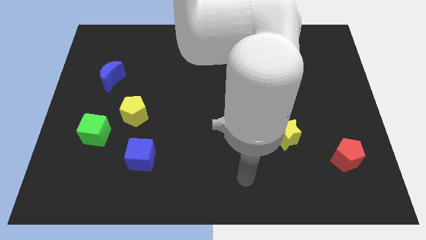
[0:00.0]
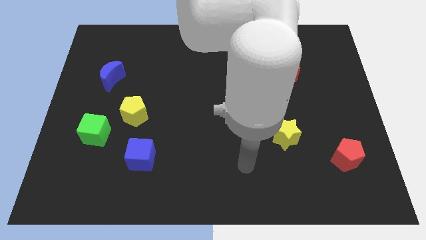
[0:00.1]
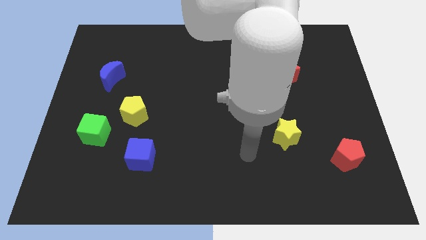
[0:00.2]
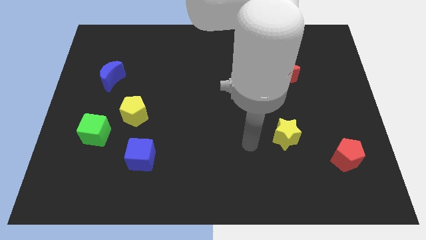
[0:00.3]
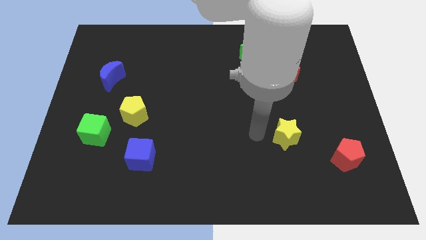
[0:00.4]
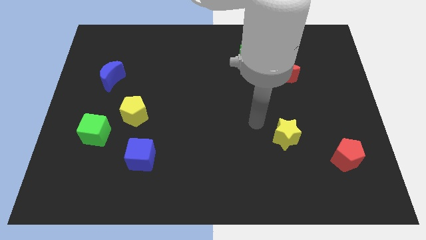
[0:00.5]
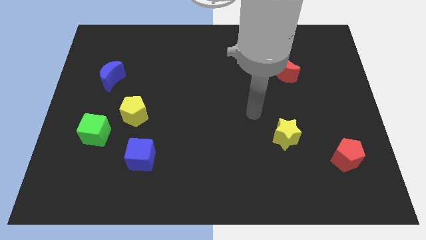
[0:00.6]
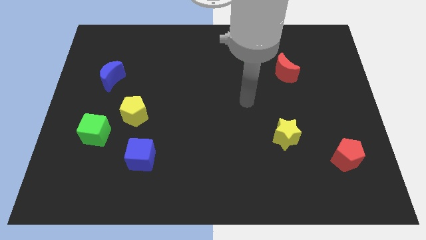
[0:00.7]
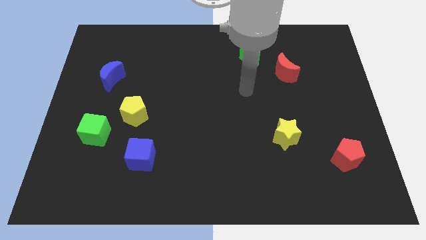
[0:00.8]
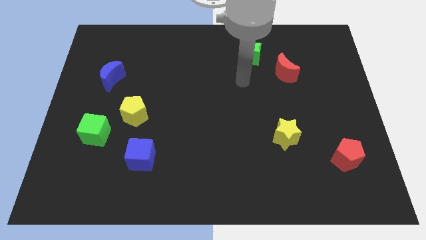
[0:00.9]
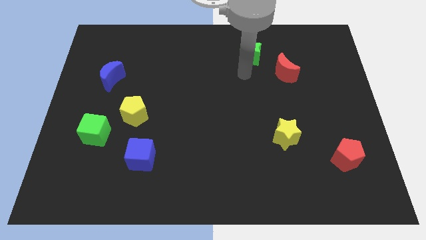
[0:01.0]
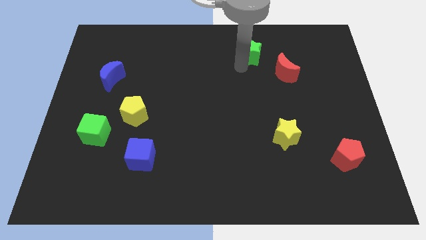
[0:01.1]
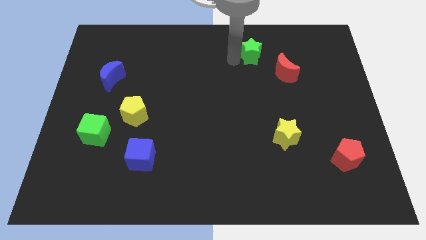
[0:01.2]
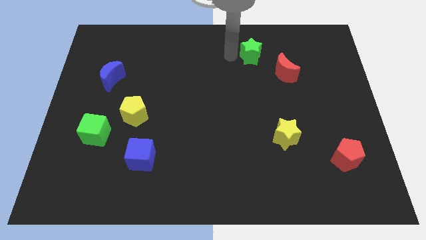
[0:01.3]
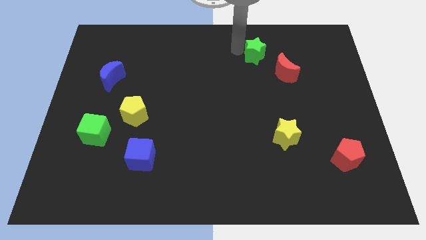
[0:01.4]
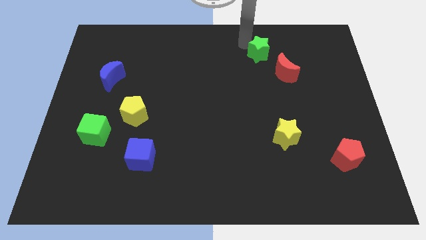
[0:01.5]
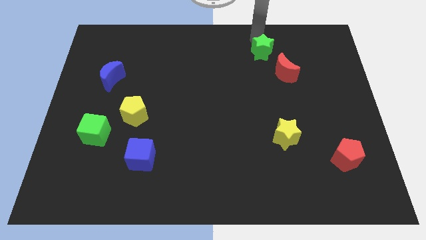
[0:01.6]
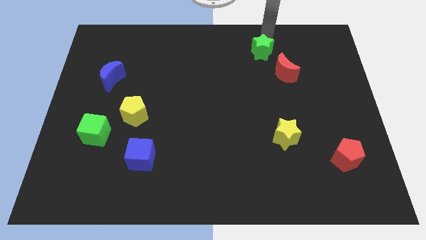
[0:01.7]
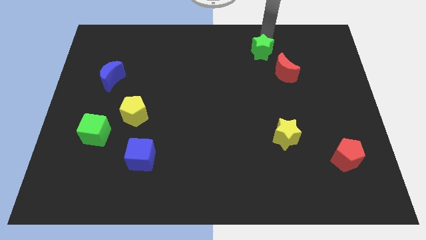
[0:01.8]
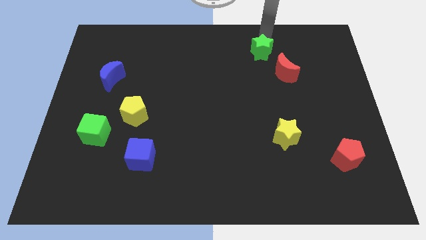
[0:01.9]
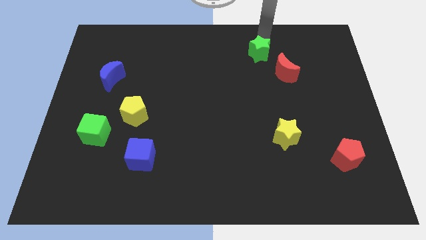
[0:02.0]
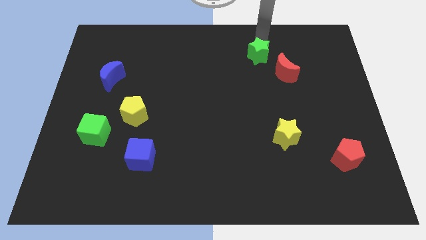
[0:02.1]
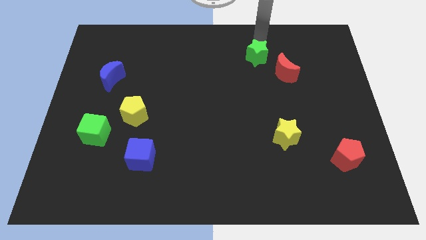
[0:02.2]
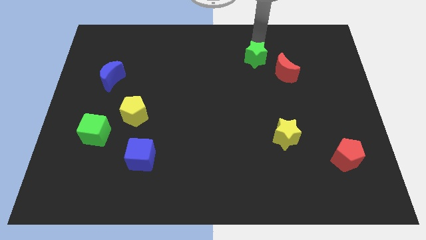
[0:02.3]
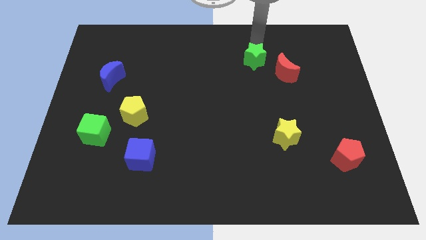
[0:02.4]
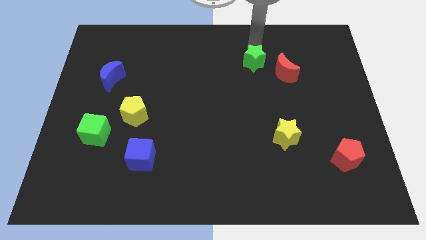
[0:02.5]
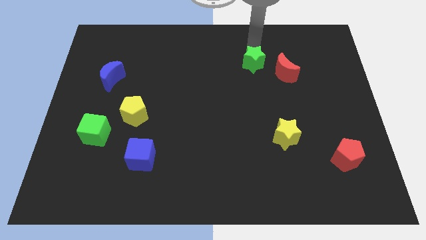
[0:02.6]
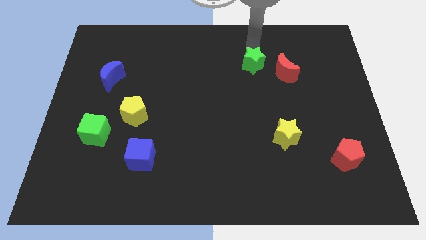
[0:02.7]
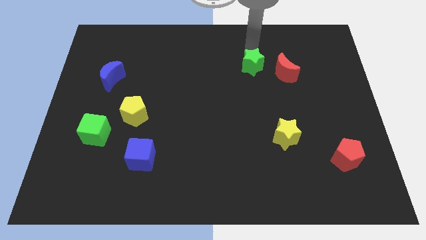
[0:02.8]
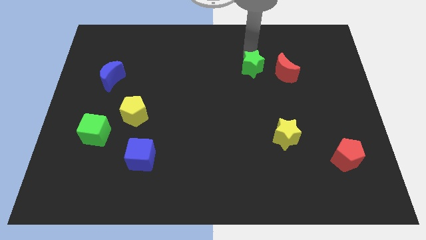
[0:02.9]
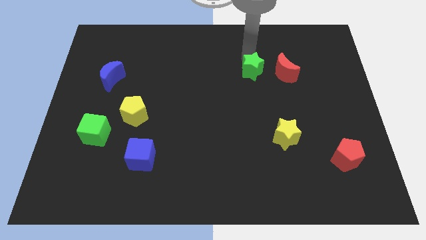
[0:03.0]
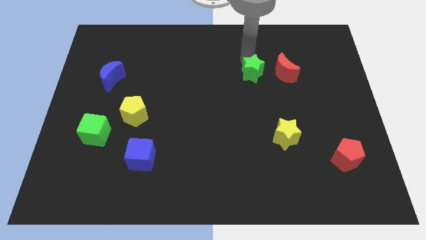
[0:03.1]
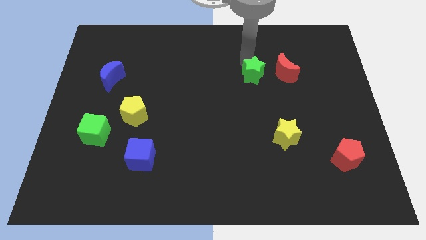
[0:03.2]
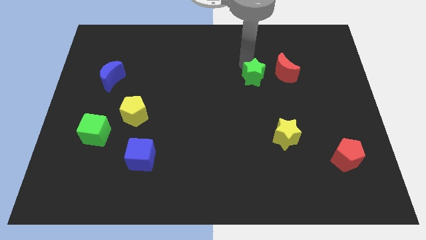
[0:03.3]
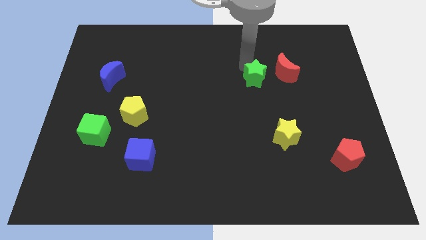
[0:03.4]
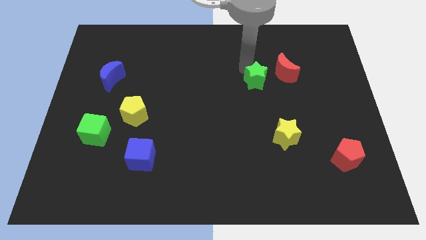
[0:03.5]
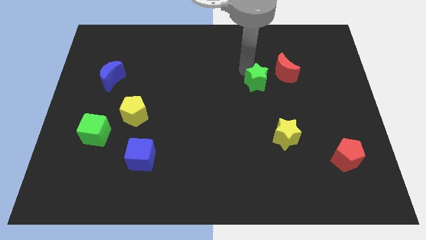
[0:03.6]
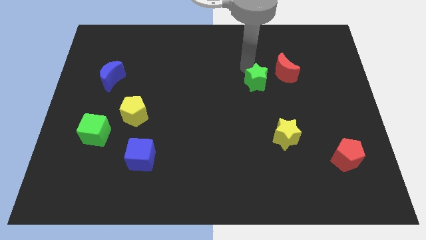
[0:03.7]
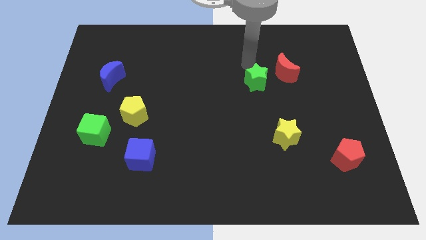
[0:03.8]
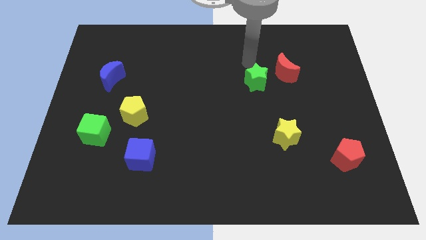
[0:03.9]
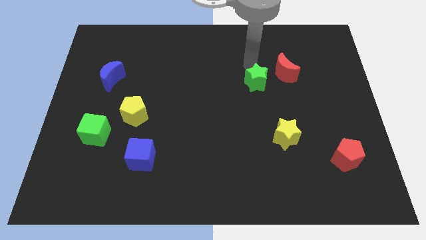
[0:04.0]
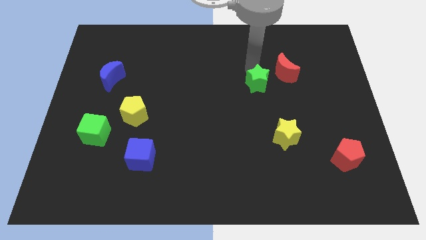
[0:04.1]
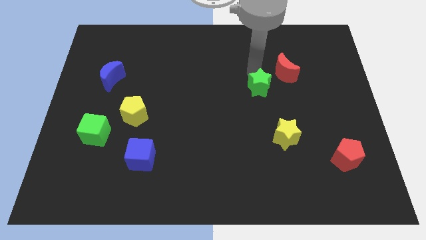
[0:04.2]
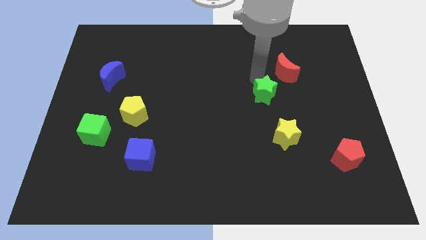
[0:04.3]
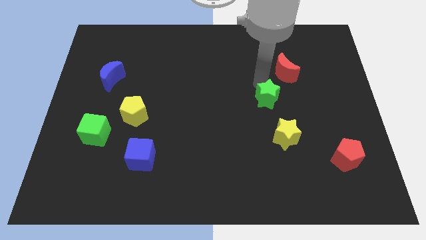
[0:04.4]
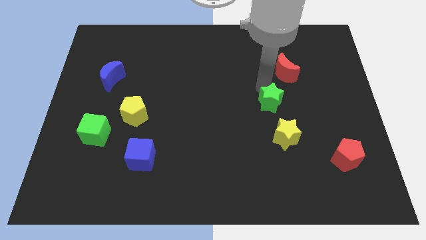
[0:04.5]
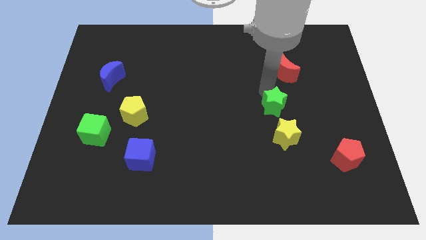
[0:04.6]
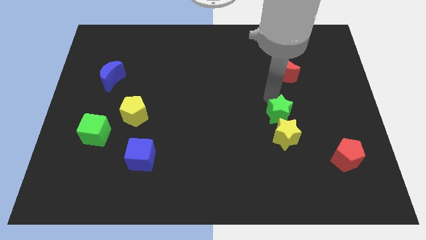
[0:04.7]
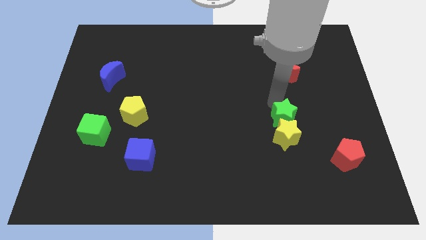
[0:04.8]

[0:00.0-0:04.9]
move the green star towards the yellow star

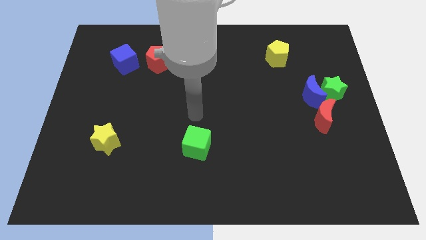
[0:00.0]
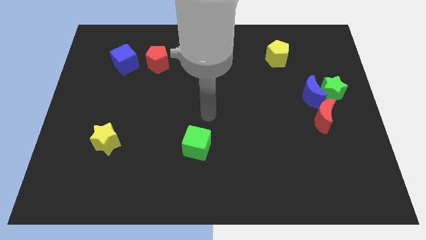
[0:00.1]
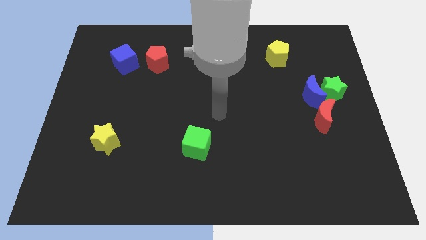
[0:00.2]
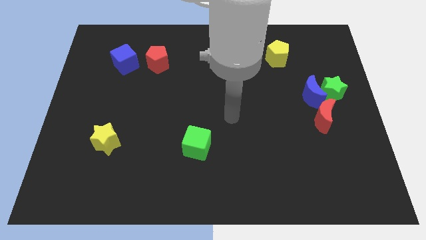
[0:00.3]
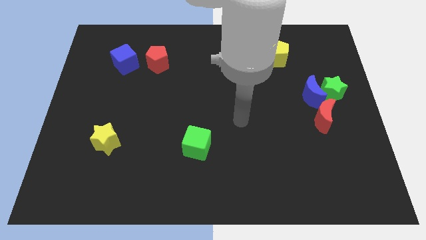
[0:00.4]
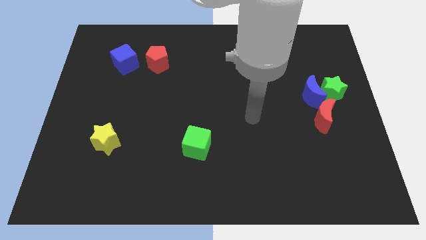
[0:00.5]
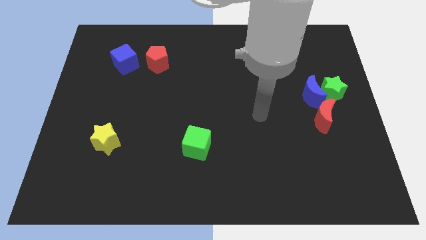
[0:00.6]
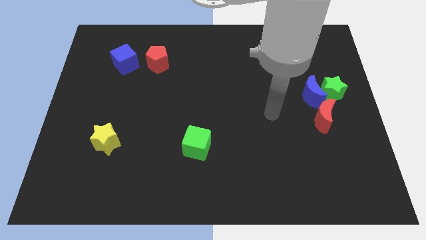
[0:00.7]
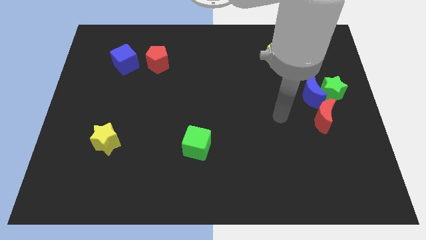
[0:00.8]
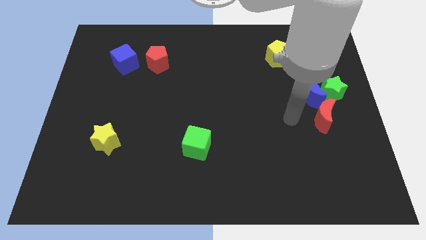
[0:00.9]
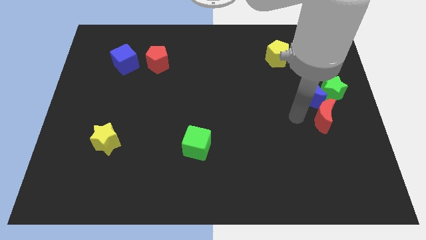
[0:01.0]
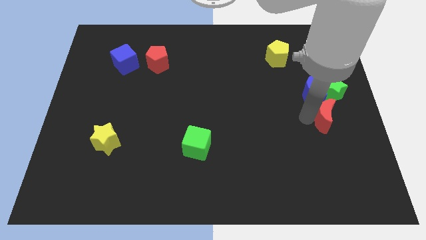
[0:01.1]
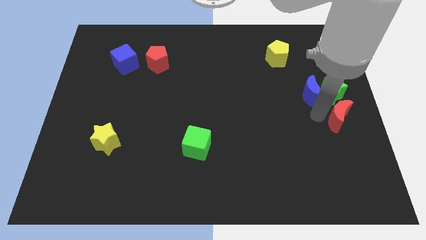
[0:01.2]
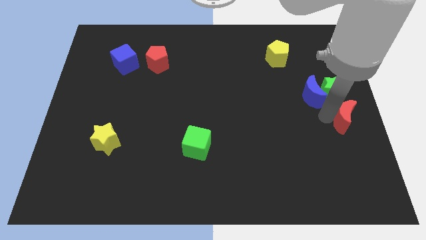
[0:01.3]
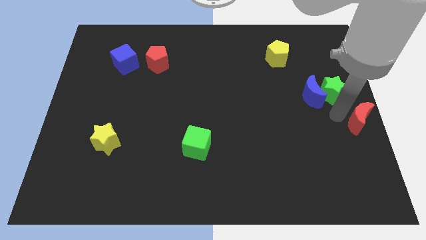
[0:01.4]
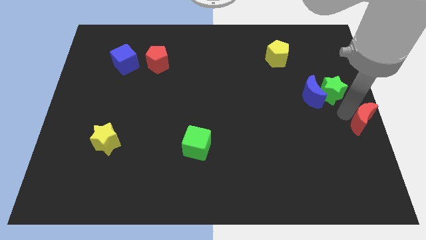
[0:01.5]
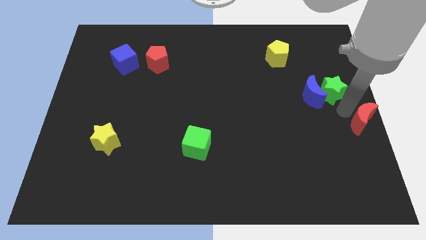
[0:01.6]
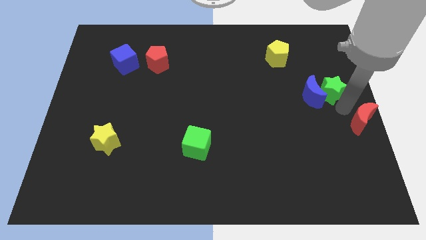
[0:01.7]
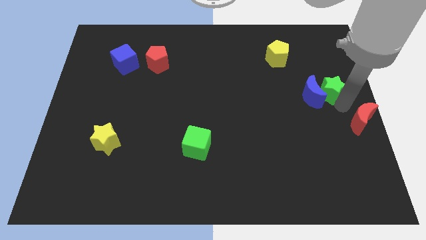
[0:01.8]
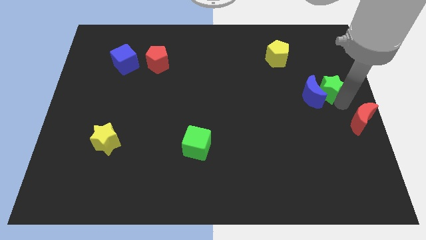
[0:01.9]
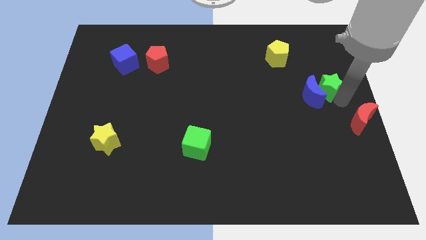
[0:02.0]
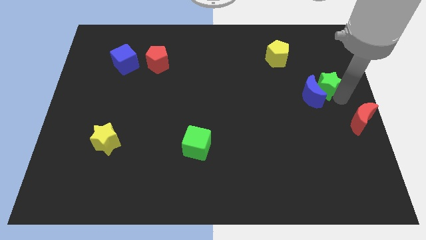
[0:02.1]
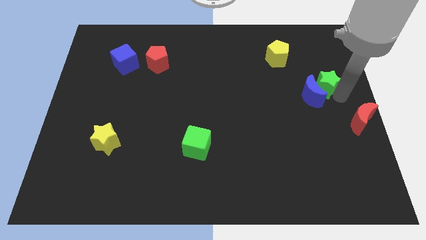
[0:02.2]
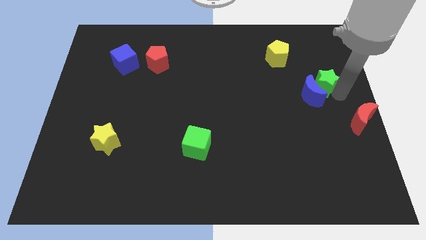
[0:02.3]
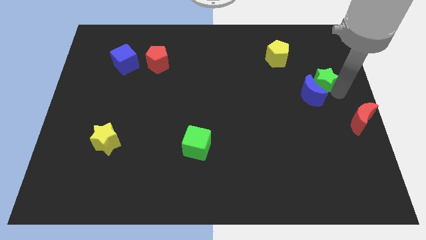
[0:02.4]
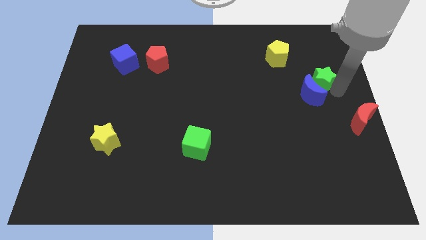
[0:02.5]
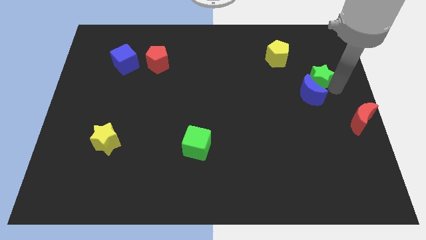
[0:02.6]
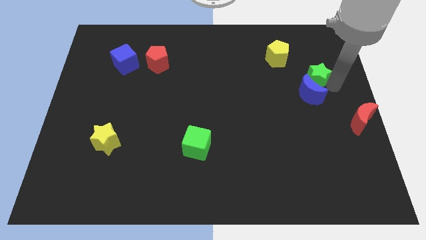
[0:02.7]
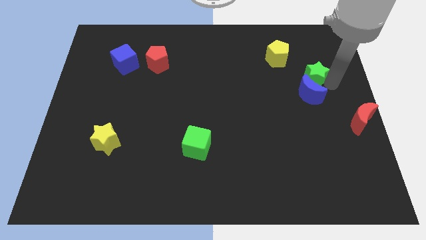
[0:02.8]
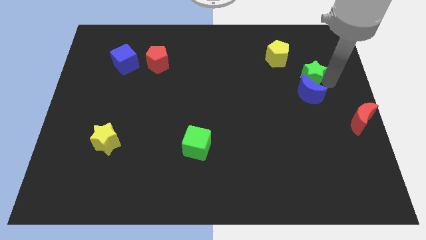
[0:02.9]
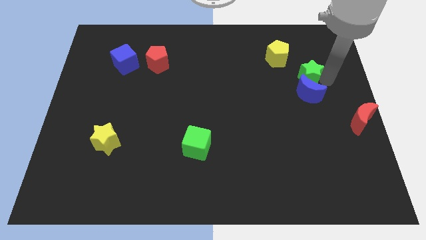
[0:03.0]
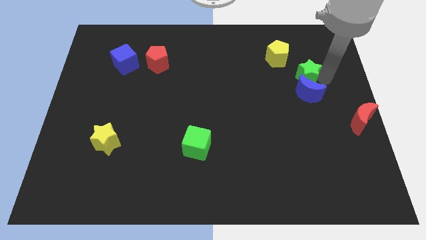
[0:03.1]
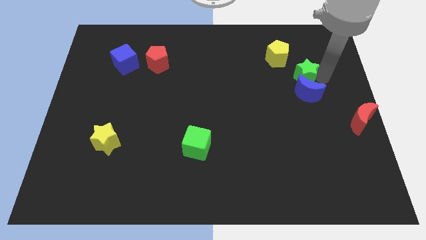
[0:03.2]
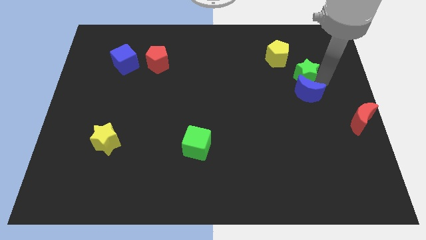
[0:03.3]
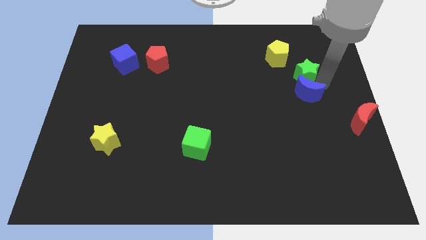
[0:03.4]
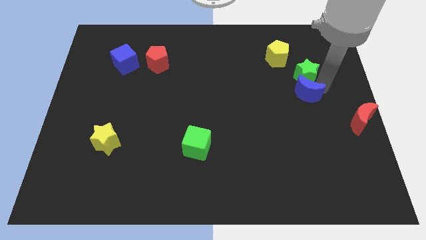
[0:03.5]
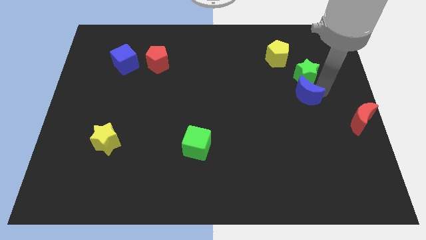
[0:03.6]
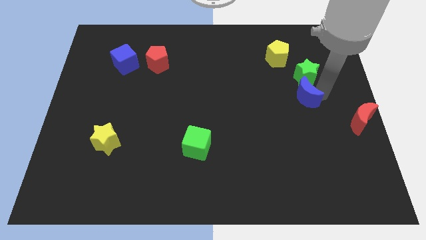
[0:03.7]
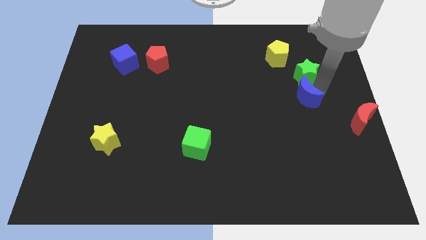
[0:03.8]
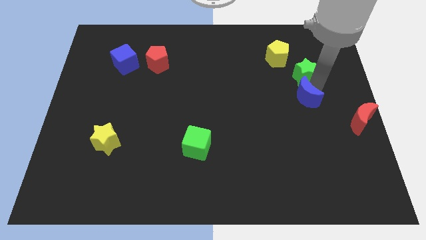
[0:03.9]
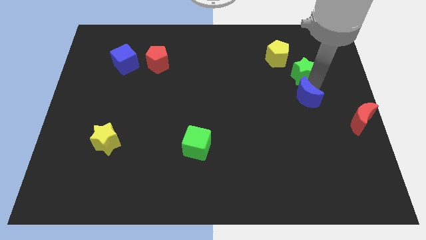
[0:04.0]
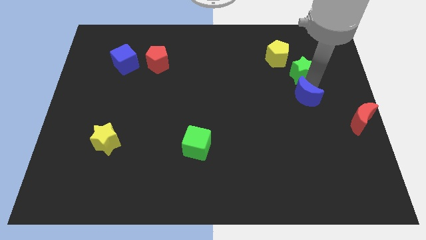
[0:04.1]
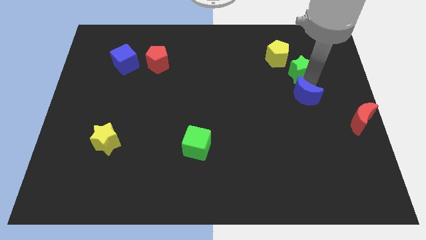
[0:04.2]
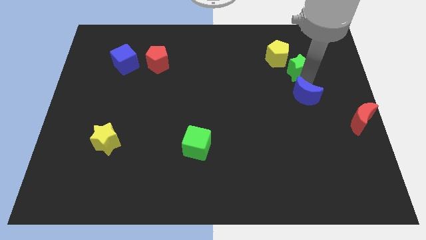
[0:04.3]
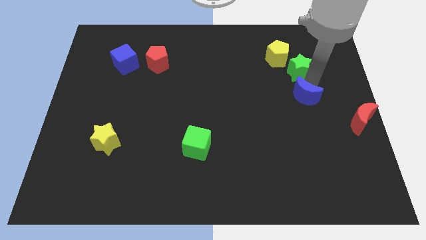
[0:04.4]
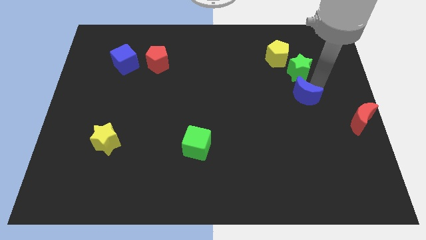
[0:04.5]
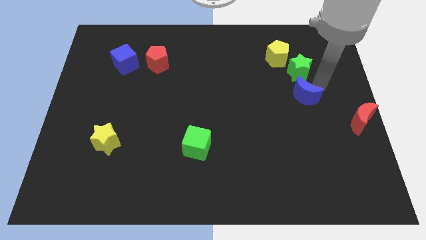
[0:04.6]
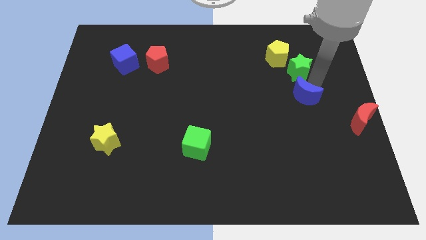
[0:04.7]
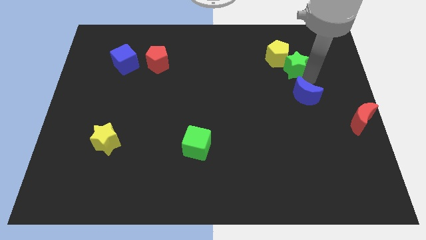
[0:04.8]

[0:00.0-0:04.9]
slide the green star towards the yellow pentagon
